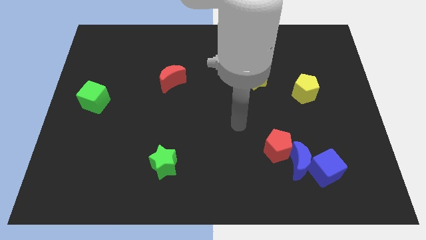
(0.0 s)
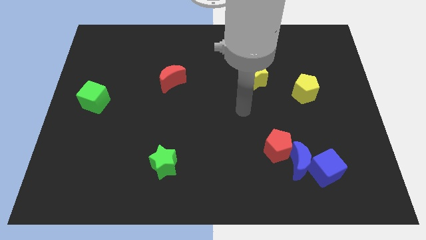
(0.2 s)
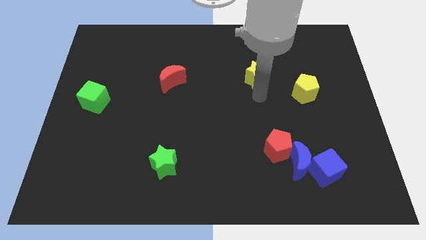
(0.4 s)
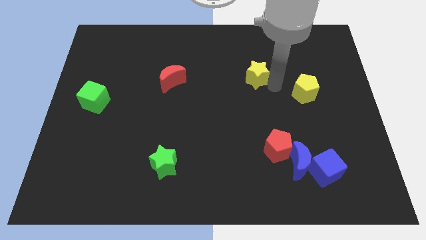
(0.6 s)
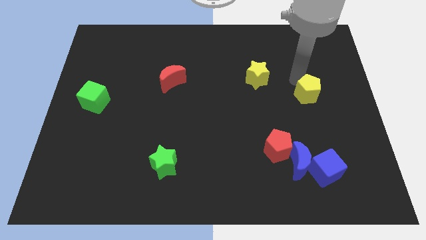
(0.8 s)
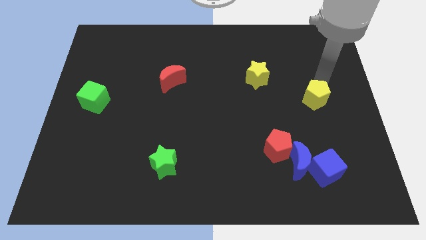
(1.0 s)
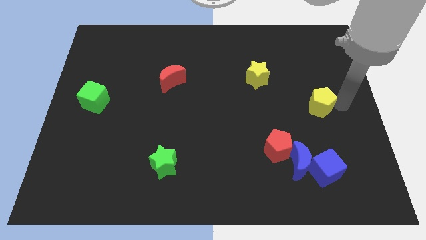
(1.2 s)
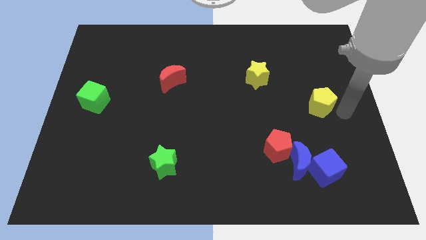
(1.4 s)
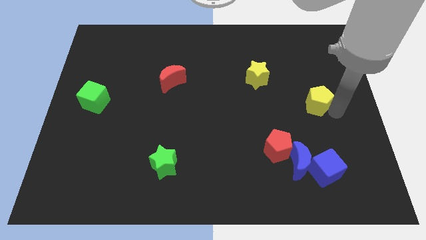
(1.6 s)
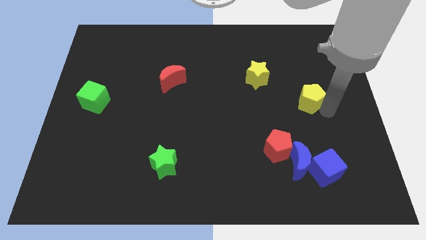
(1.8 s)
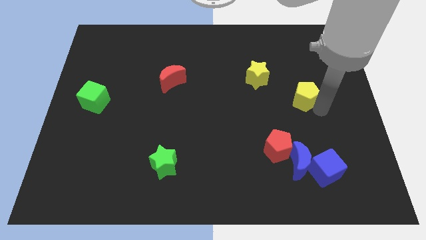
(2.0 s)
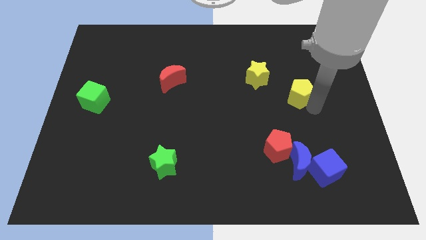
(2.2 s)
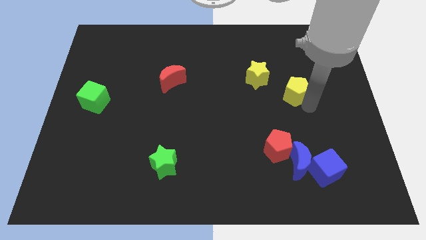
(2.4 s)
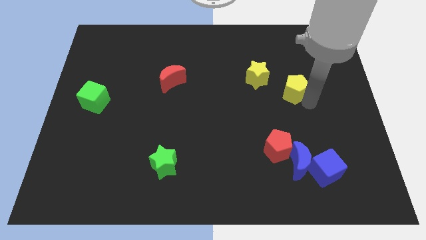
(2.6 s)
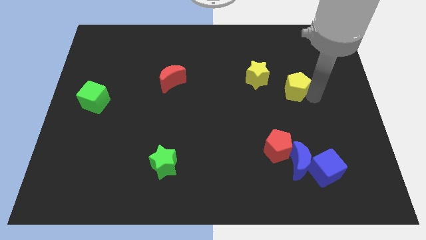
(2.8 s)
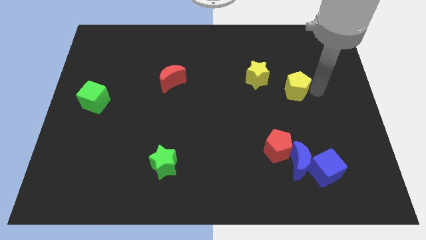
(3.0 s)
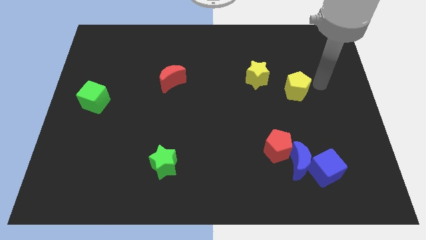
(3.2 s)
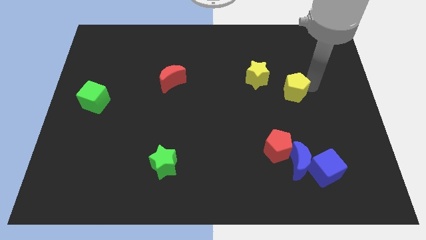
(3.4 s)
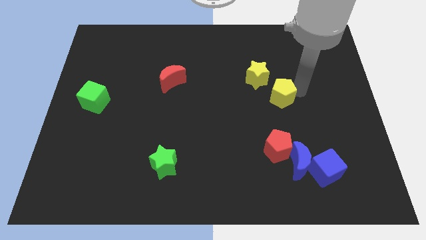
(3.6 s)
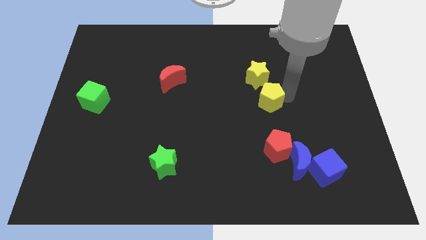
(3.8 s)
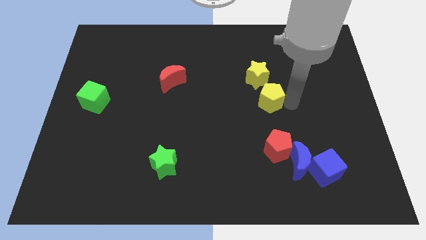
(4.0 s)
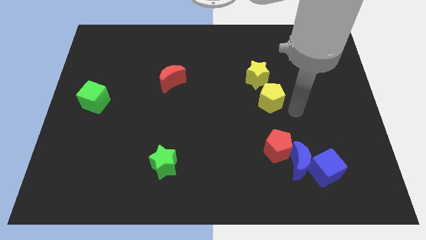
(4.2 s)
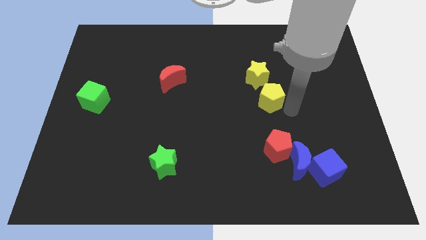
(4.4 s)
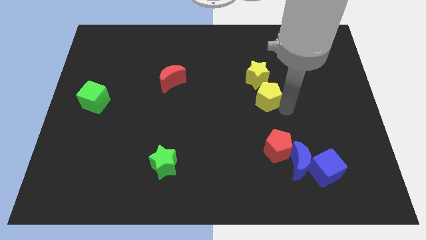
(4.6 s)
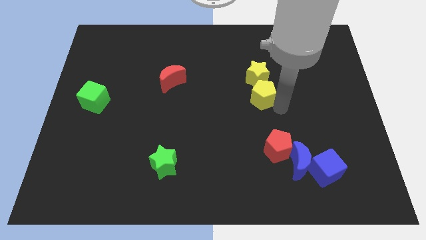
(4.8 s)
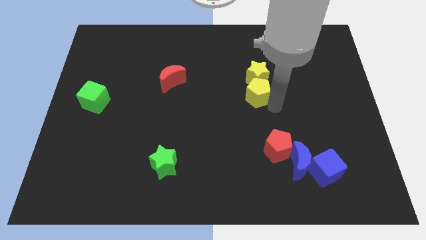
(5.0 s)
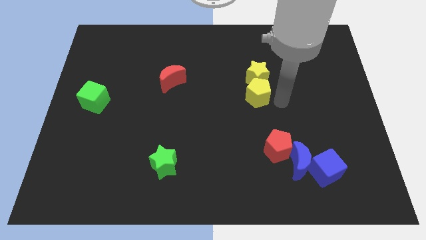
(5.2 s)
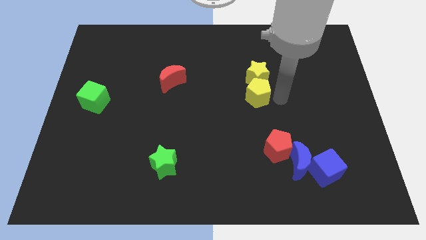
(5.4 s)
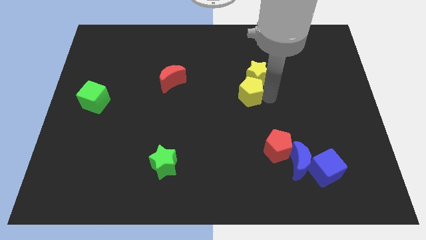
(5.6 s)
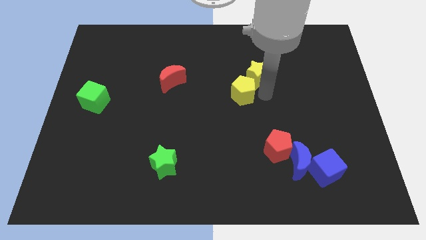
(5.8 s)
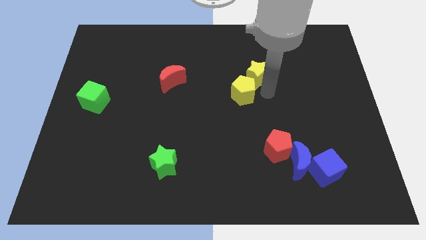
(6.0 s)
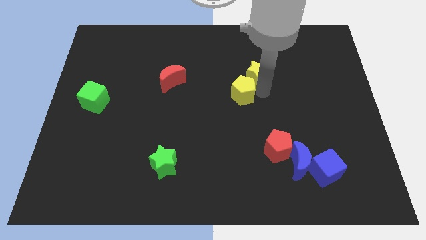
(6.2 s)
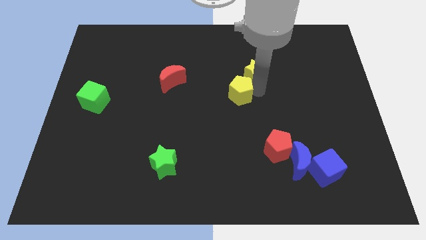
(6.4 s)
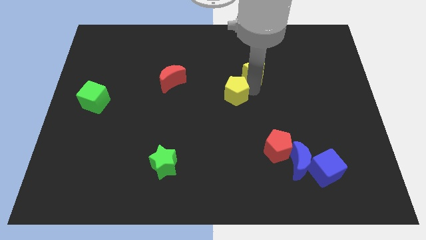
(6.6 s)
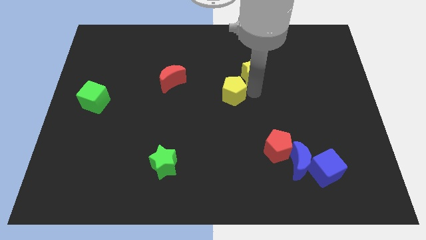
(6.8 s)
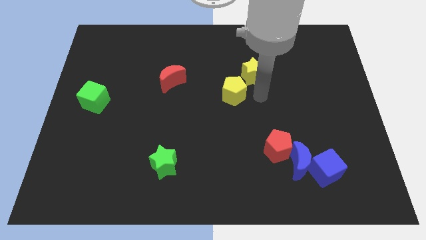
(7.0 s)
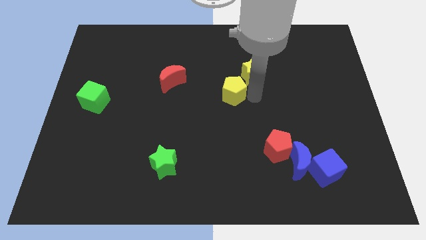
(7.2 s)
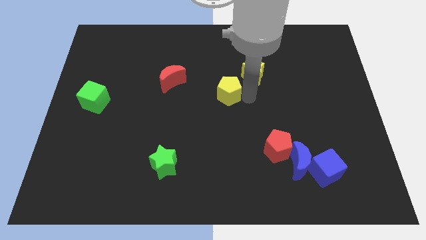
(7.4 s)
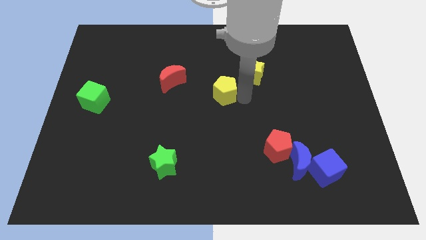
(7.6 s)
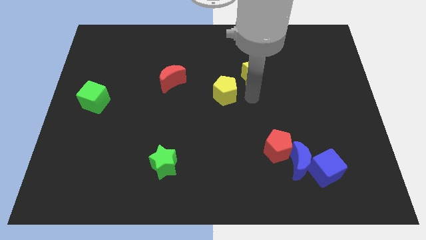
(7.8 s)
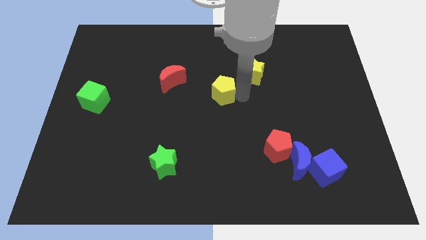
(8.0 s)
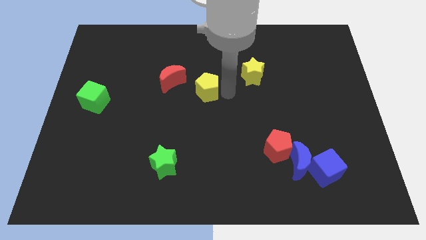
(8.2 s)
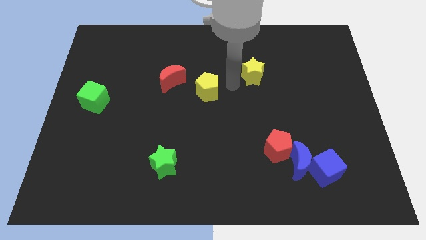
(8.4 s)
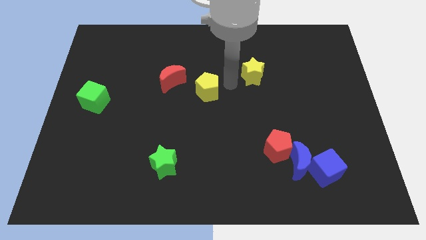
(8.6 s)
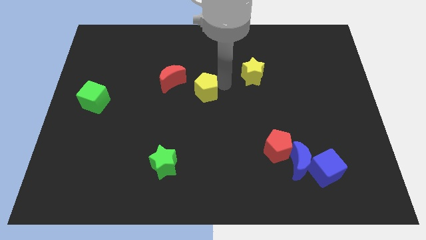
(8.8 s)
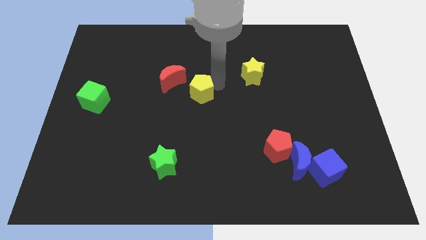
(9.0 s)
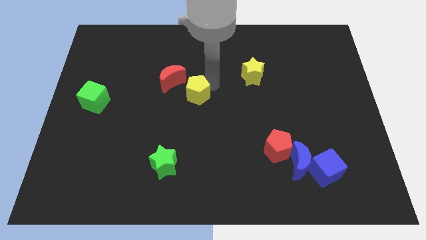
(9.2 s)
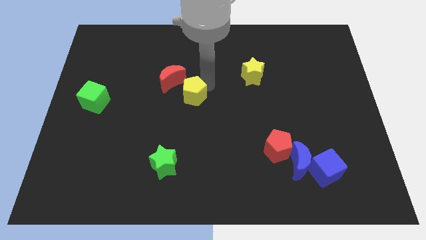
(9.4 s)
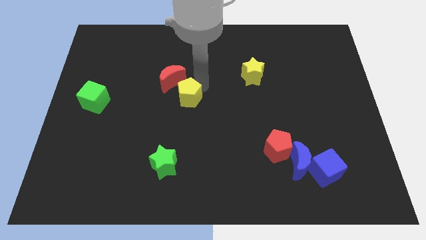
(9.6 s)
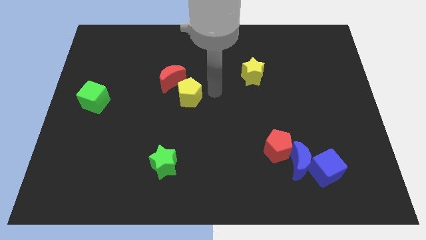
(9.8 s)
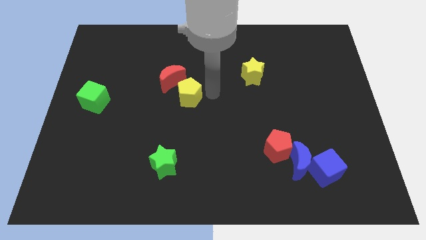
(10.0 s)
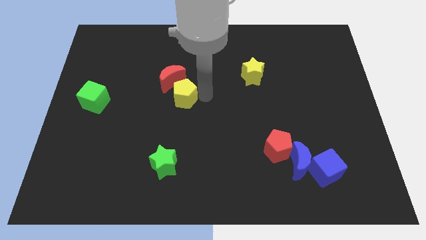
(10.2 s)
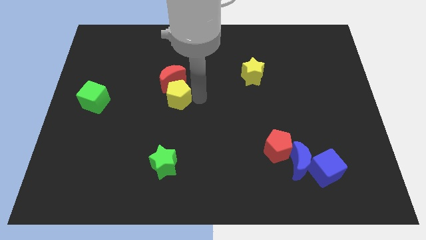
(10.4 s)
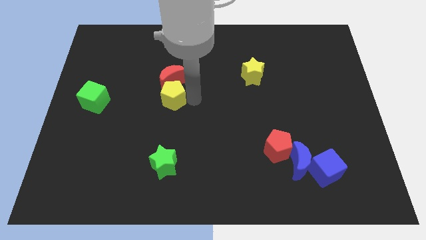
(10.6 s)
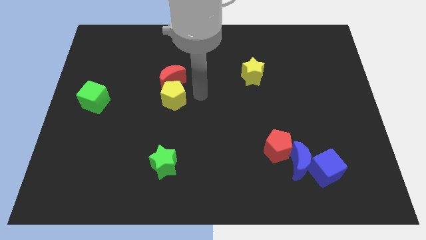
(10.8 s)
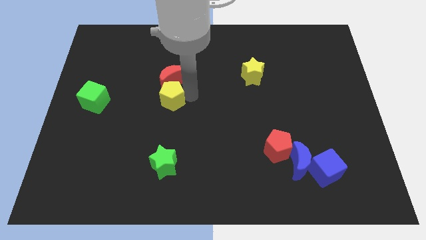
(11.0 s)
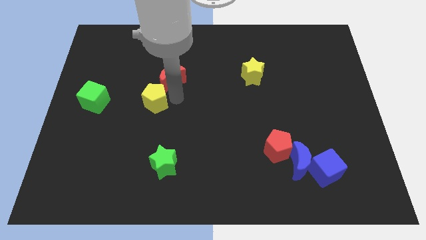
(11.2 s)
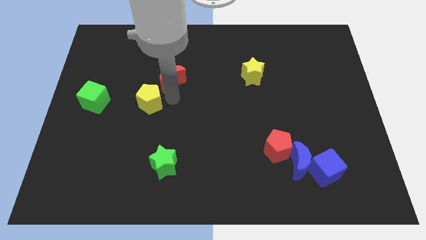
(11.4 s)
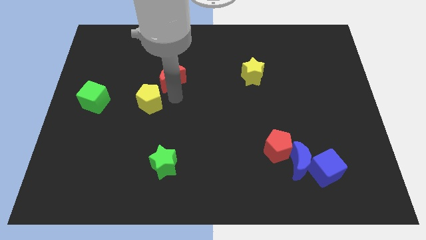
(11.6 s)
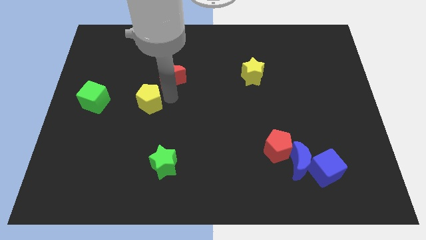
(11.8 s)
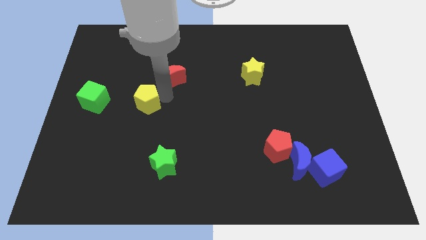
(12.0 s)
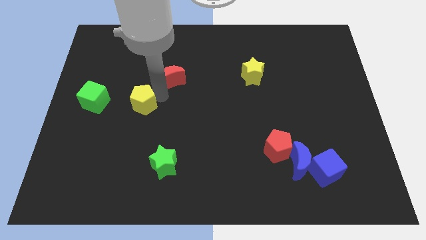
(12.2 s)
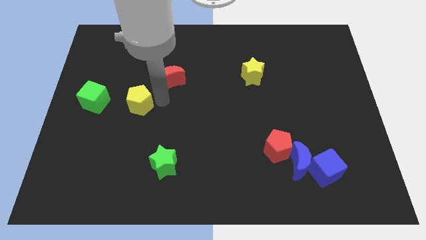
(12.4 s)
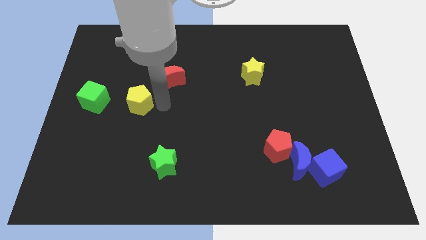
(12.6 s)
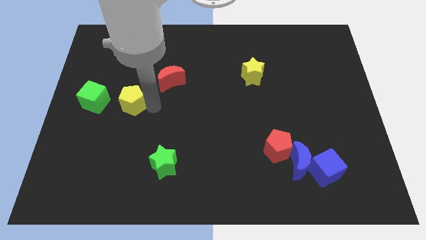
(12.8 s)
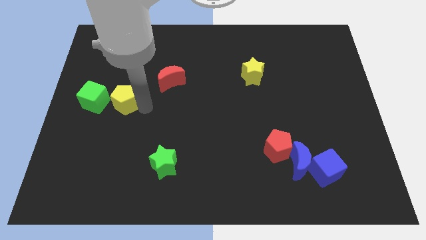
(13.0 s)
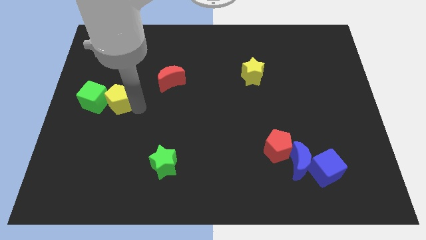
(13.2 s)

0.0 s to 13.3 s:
push the yellow pentagon towards the green cube
